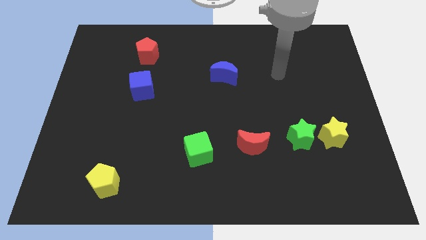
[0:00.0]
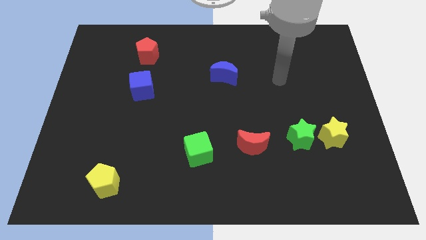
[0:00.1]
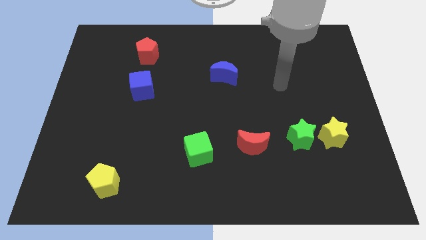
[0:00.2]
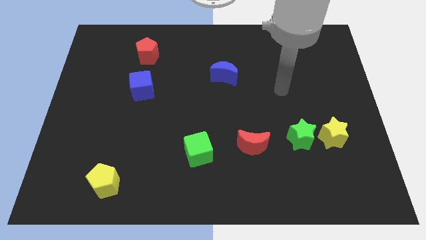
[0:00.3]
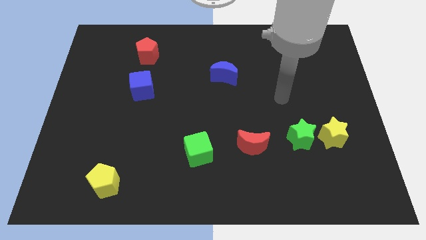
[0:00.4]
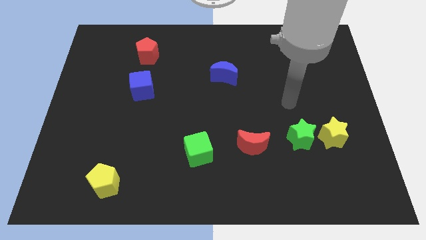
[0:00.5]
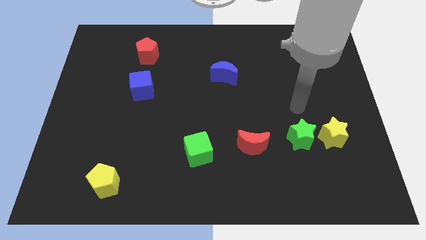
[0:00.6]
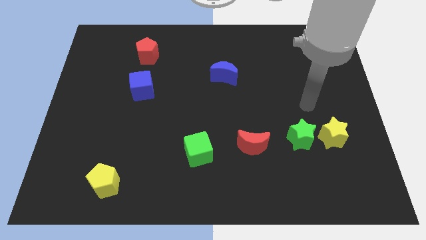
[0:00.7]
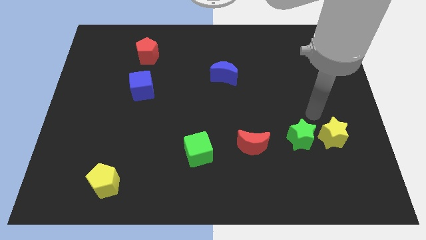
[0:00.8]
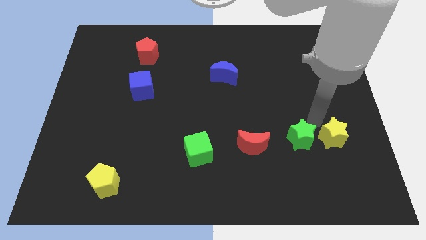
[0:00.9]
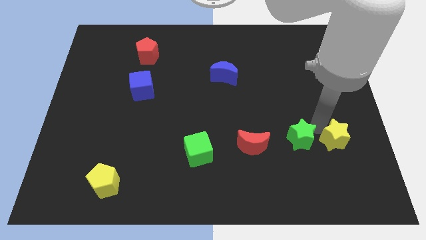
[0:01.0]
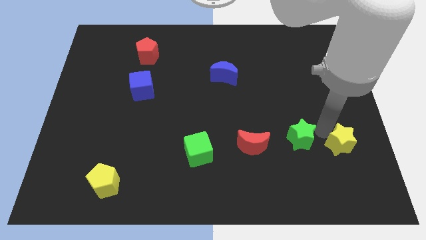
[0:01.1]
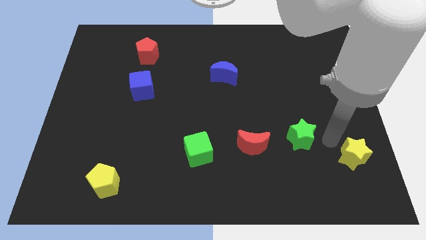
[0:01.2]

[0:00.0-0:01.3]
pull the green star apart from the yellow star

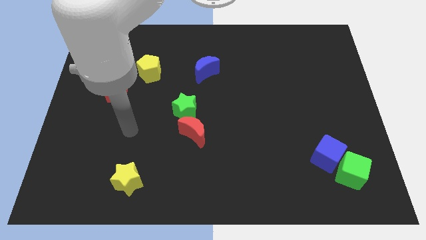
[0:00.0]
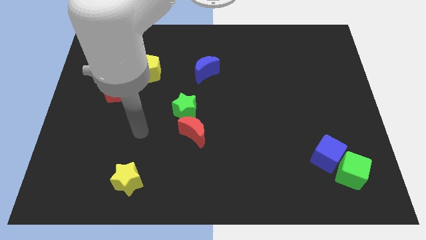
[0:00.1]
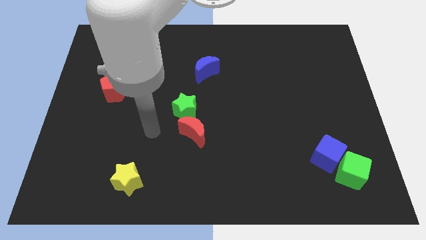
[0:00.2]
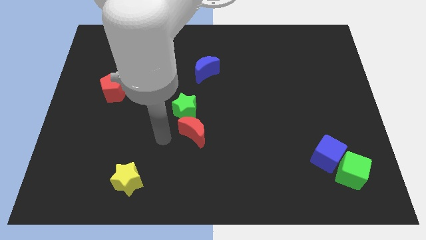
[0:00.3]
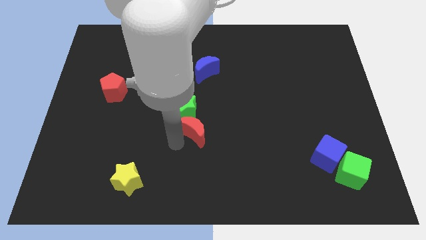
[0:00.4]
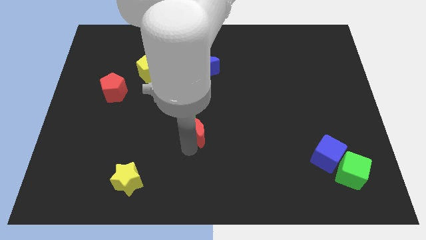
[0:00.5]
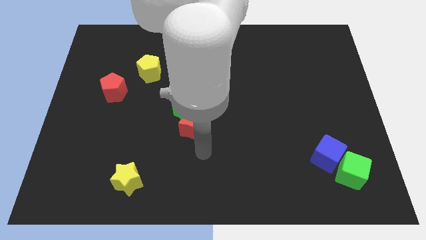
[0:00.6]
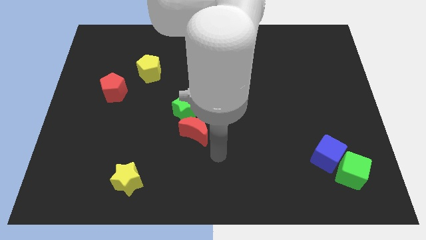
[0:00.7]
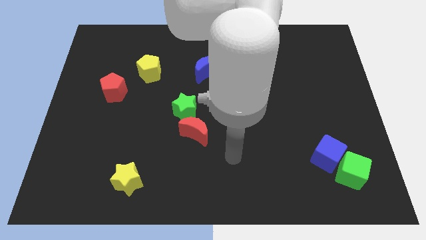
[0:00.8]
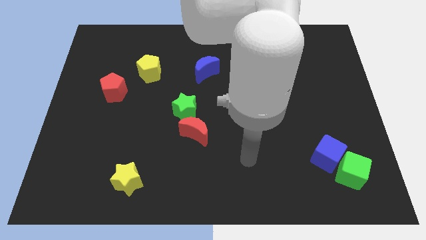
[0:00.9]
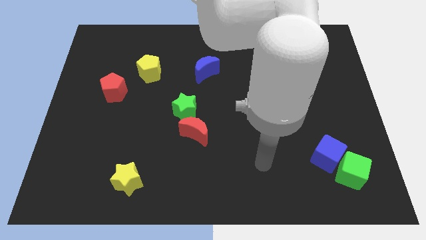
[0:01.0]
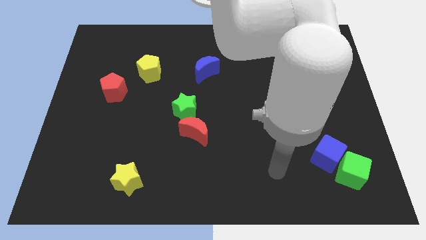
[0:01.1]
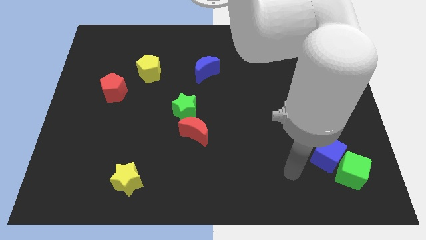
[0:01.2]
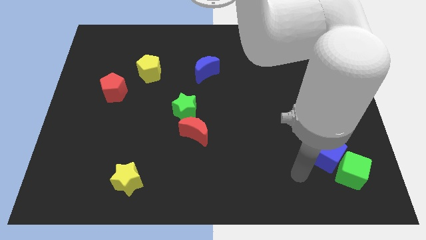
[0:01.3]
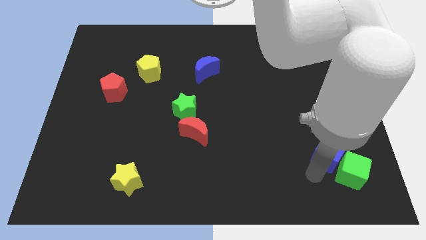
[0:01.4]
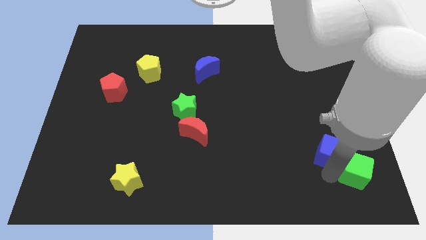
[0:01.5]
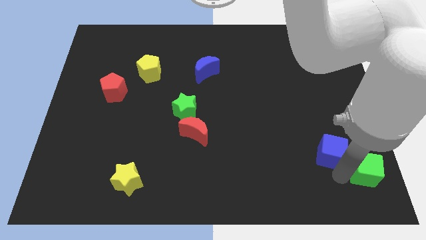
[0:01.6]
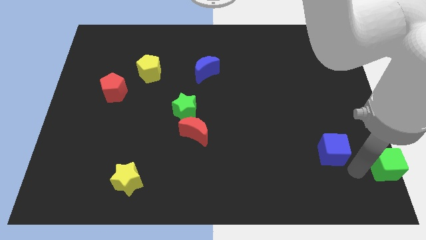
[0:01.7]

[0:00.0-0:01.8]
separate the blue cube from the green cube

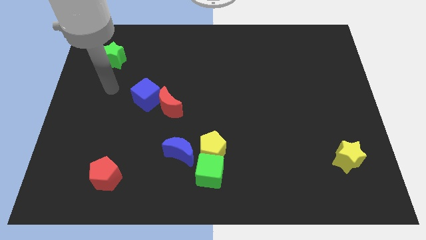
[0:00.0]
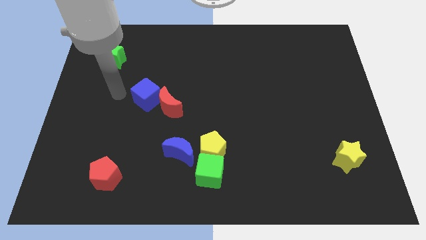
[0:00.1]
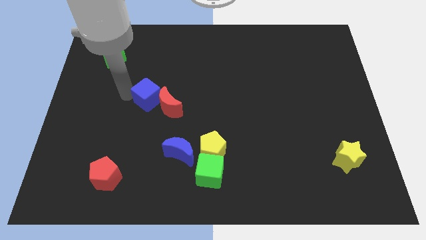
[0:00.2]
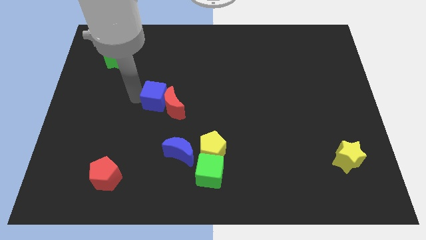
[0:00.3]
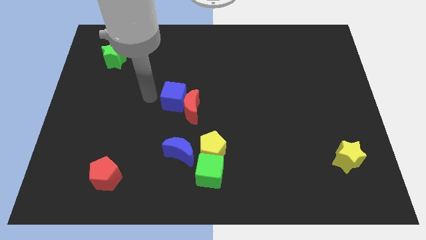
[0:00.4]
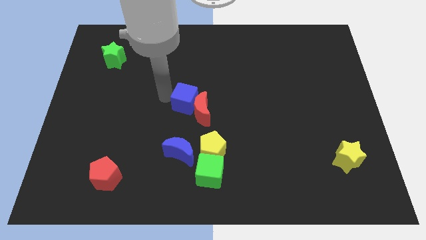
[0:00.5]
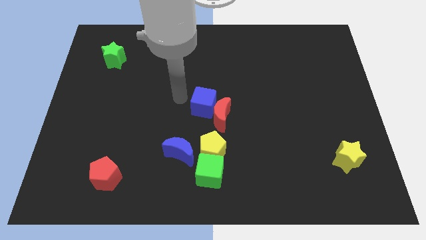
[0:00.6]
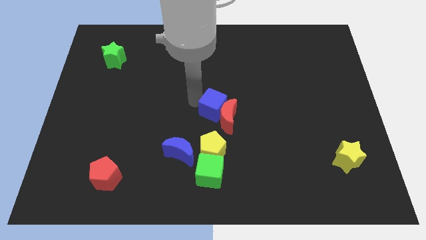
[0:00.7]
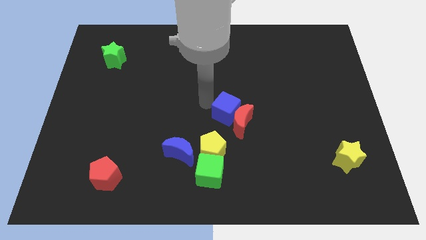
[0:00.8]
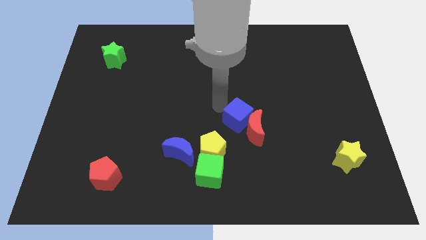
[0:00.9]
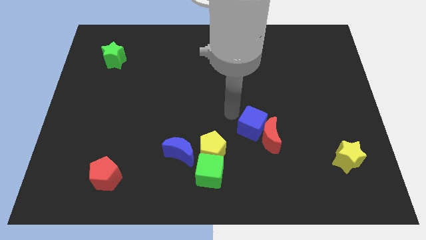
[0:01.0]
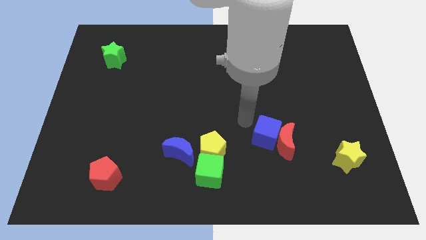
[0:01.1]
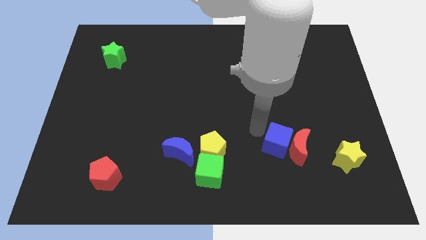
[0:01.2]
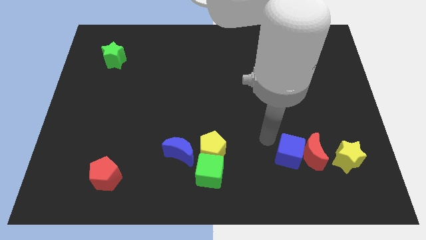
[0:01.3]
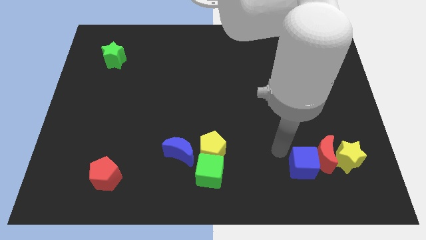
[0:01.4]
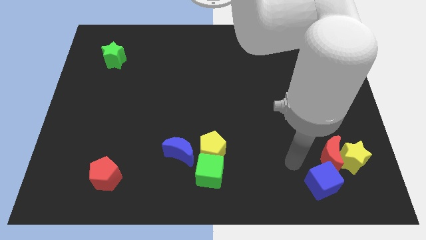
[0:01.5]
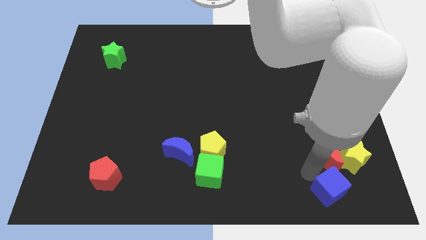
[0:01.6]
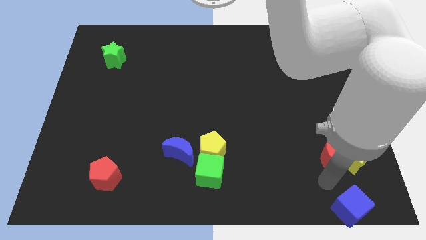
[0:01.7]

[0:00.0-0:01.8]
move the red moon away from the blue cube

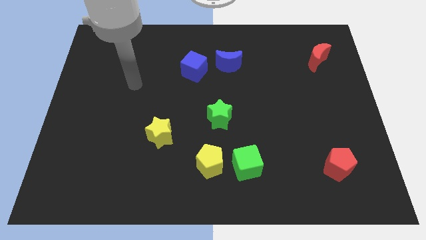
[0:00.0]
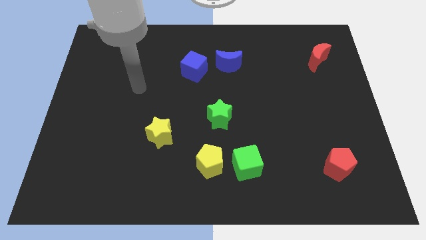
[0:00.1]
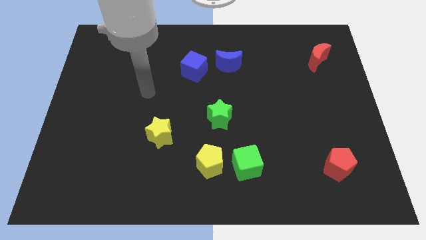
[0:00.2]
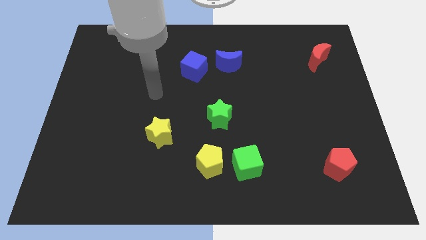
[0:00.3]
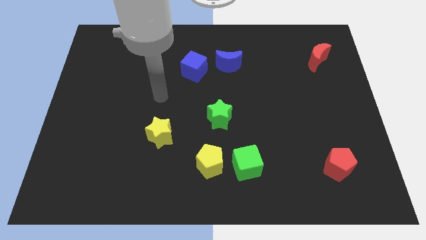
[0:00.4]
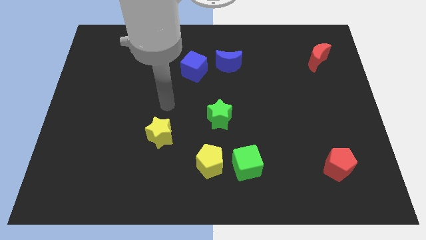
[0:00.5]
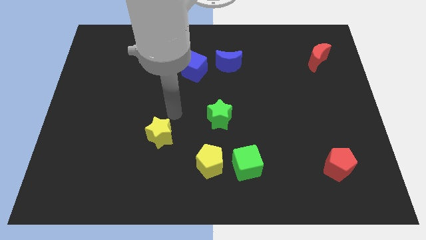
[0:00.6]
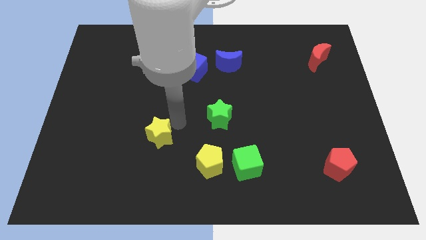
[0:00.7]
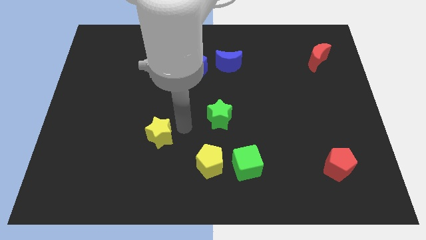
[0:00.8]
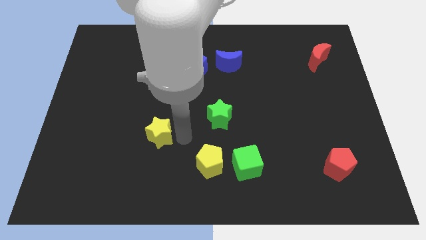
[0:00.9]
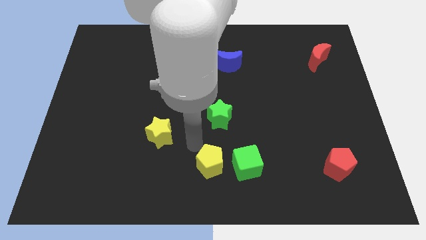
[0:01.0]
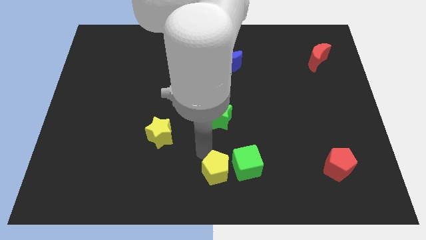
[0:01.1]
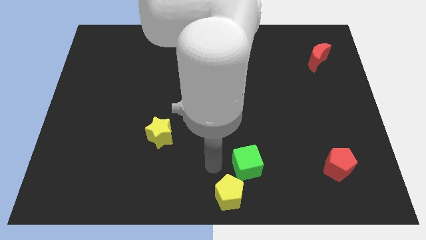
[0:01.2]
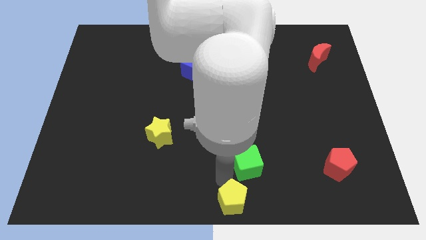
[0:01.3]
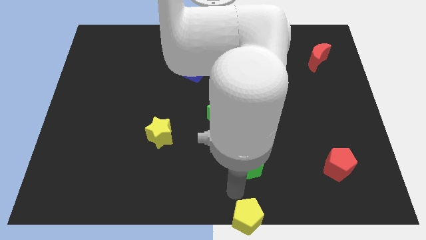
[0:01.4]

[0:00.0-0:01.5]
separate the green cube from the yellow pentagon

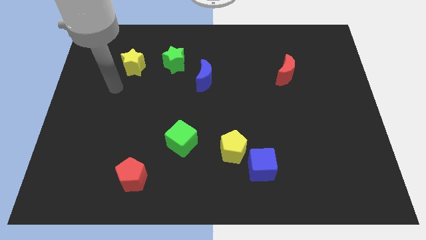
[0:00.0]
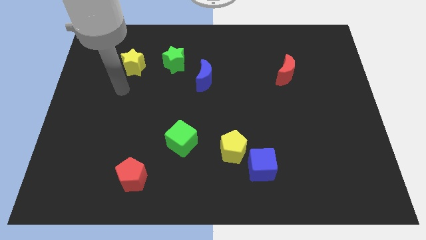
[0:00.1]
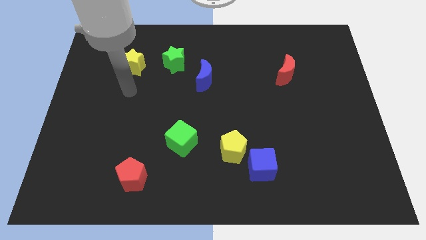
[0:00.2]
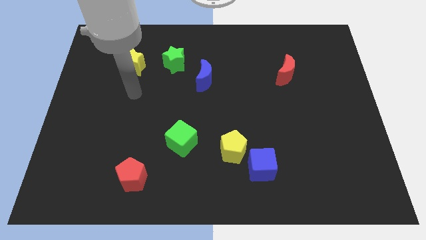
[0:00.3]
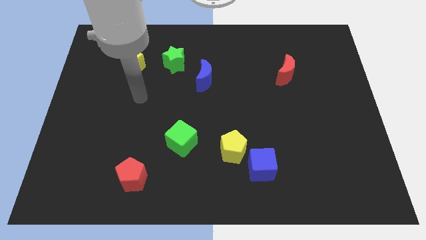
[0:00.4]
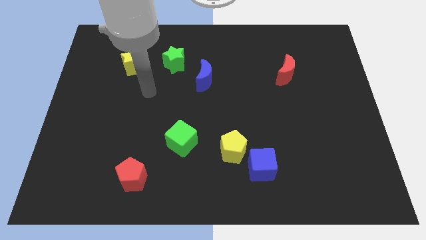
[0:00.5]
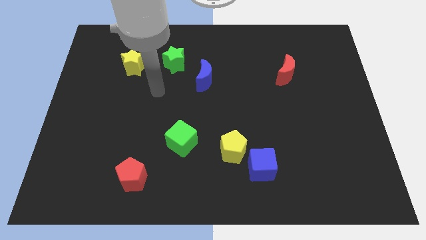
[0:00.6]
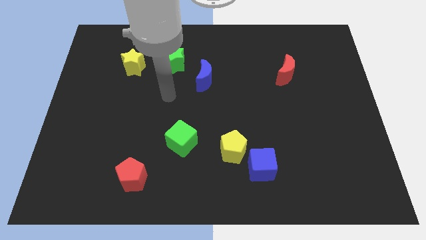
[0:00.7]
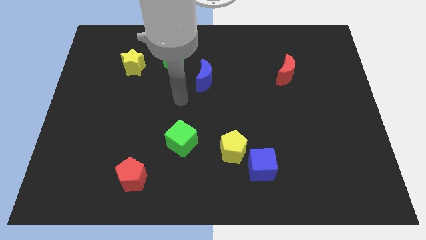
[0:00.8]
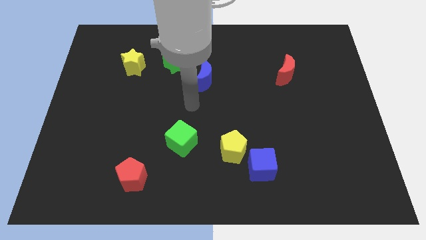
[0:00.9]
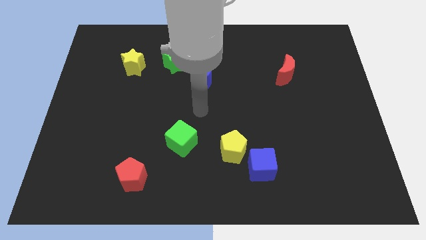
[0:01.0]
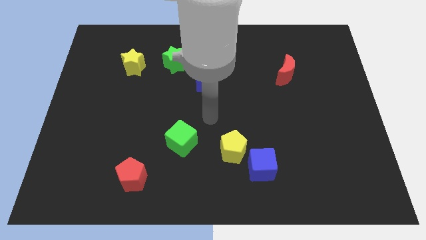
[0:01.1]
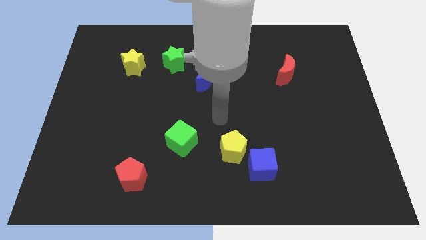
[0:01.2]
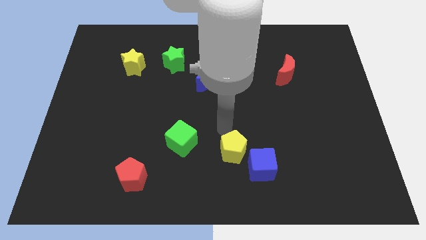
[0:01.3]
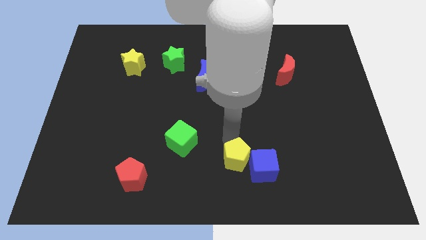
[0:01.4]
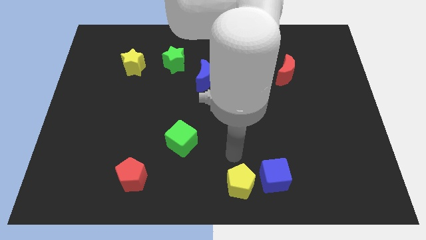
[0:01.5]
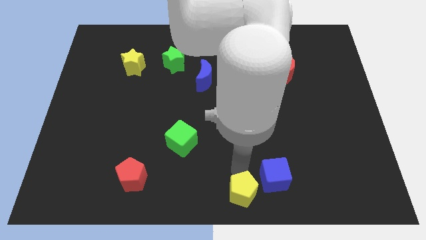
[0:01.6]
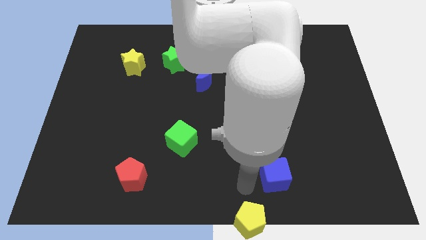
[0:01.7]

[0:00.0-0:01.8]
pull the blue cube apart from the yellow pentagon

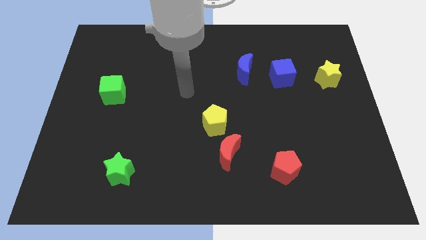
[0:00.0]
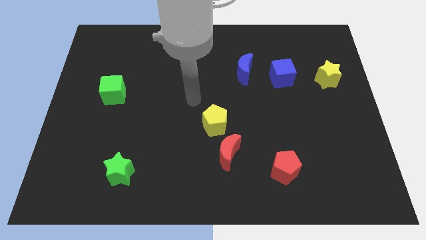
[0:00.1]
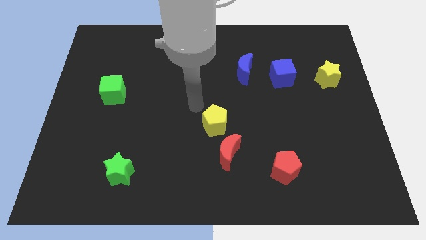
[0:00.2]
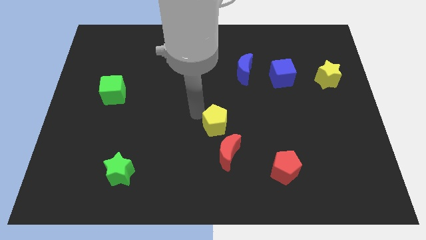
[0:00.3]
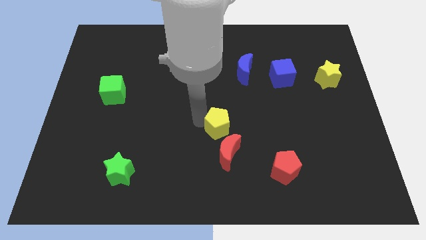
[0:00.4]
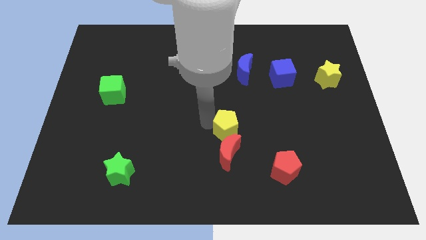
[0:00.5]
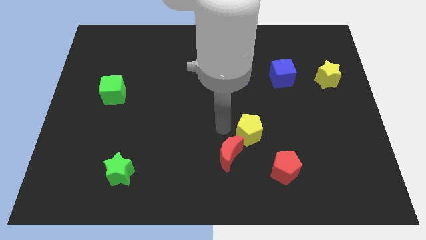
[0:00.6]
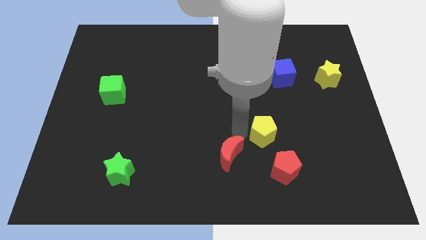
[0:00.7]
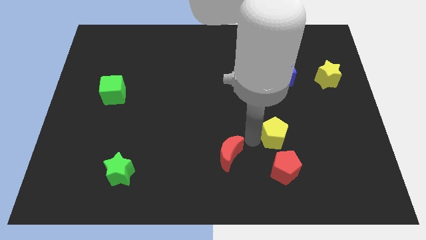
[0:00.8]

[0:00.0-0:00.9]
pull the red moon apart from the yellow pentagon

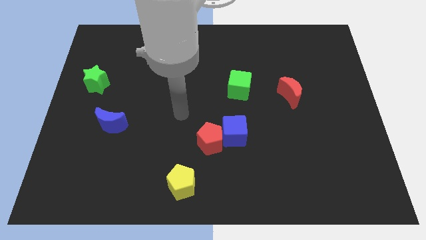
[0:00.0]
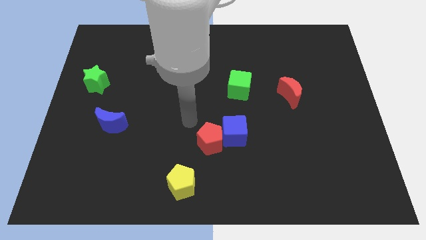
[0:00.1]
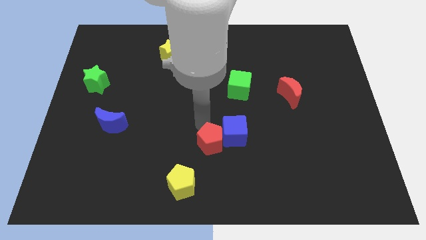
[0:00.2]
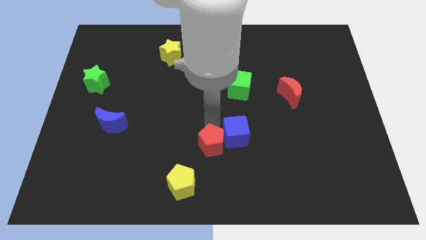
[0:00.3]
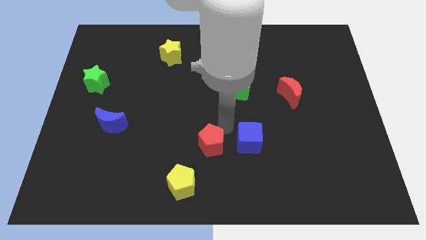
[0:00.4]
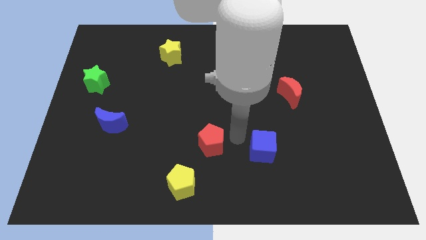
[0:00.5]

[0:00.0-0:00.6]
pull the red pentagon apart from the blue cube
